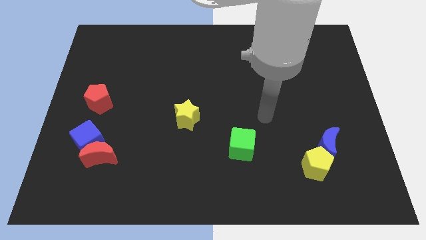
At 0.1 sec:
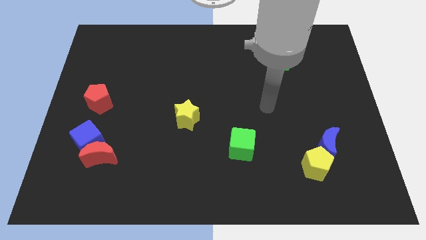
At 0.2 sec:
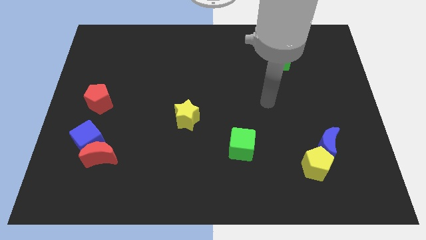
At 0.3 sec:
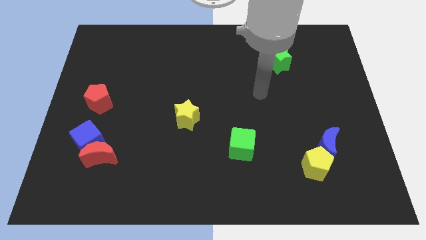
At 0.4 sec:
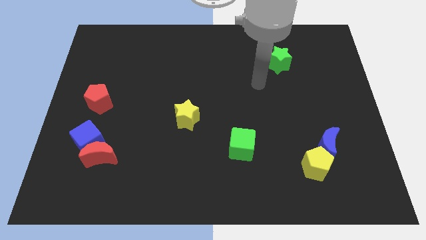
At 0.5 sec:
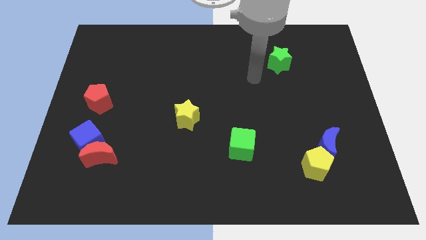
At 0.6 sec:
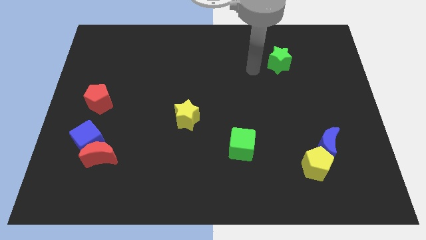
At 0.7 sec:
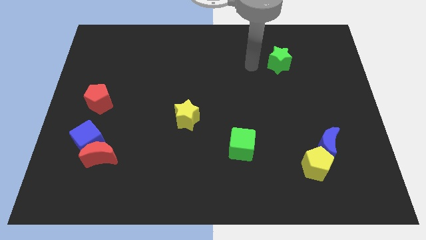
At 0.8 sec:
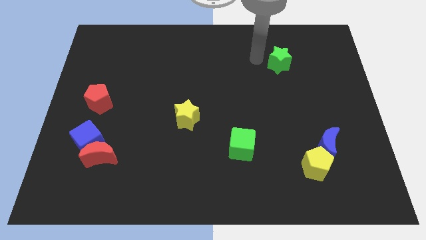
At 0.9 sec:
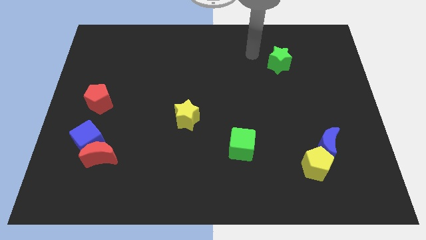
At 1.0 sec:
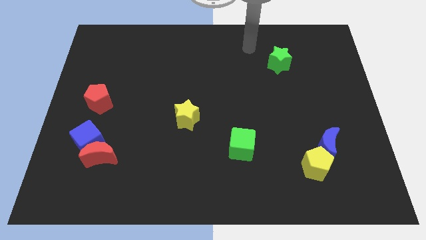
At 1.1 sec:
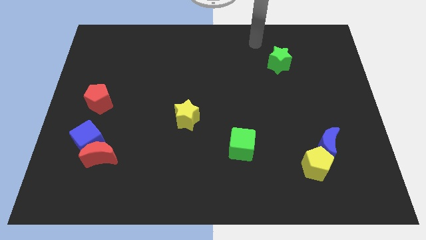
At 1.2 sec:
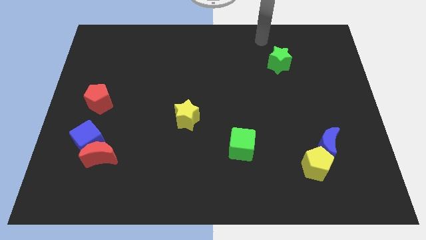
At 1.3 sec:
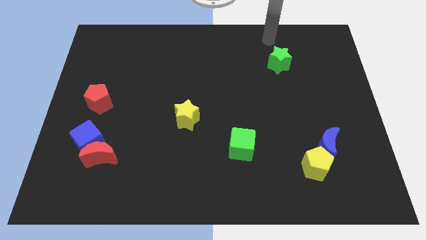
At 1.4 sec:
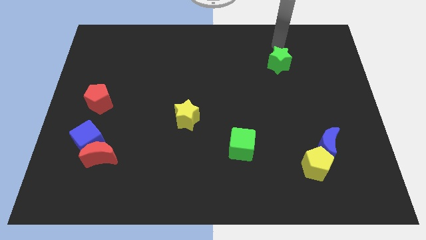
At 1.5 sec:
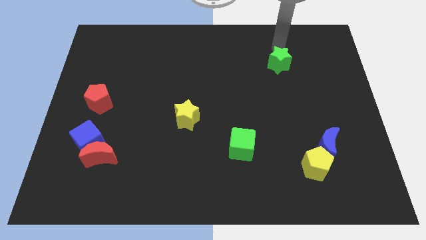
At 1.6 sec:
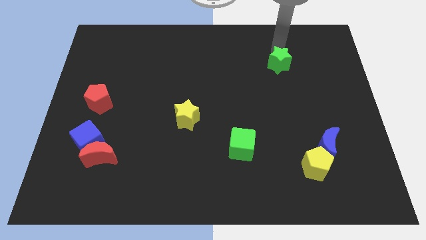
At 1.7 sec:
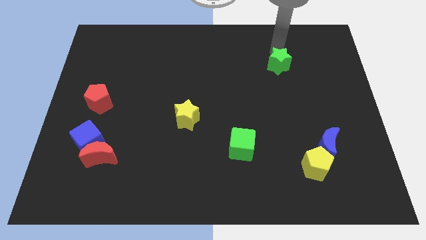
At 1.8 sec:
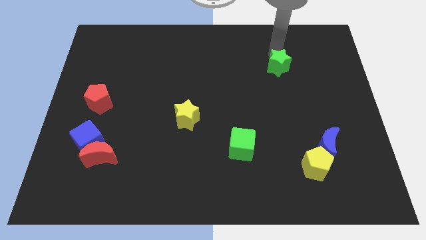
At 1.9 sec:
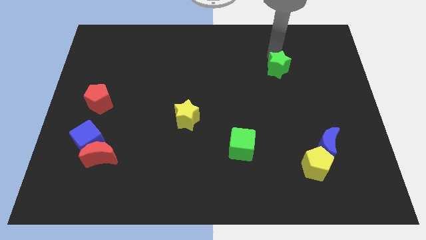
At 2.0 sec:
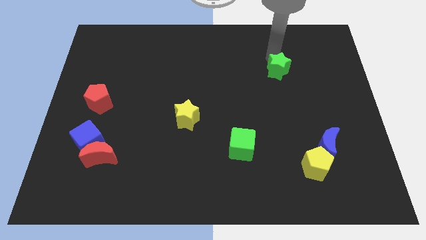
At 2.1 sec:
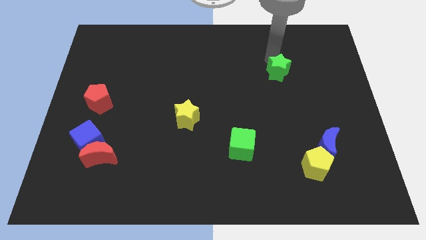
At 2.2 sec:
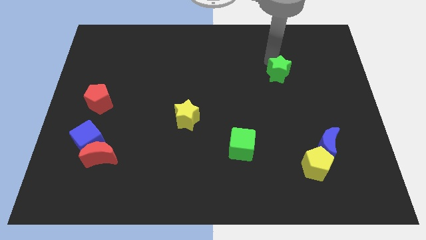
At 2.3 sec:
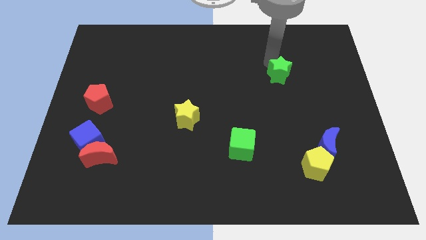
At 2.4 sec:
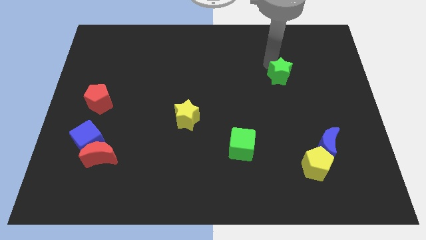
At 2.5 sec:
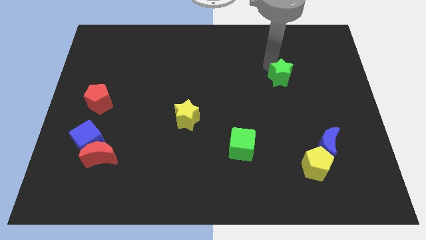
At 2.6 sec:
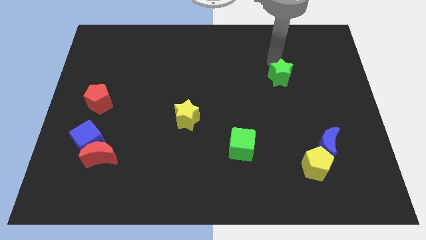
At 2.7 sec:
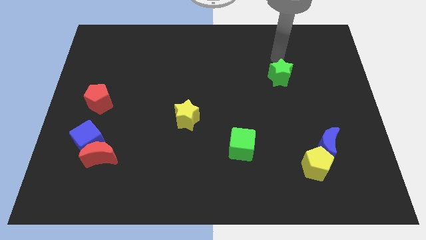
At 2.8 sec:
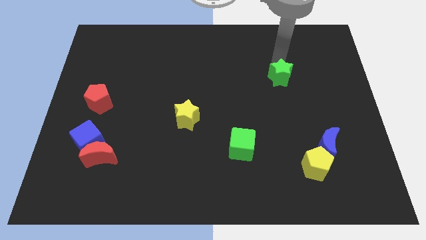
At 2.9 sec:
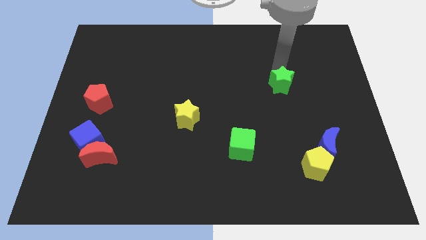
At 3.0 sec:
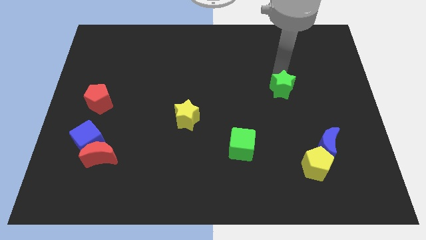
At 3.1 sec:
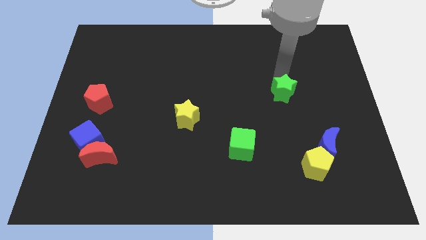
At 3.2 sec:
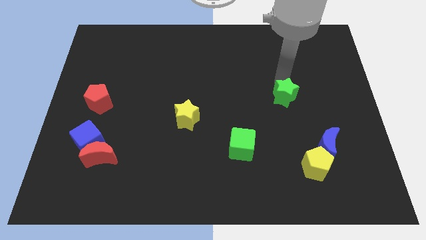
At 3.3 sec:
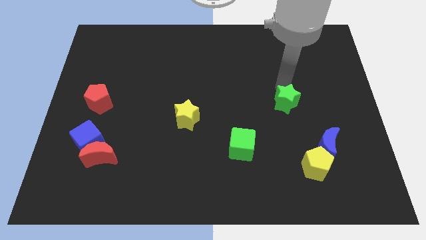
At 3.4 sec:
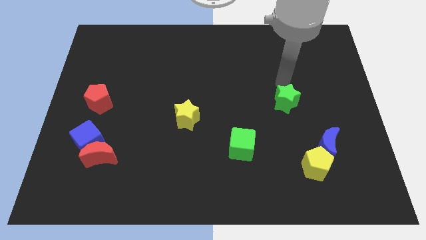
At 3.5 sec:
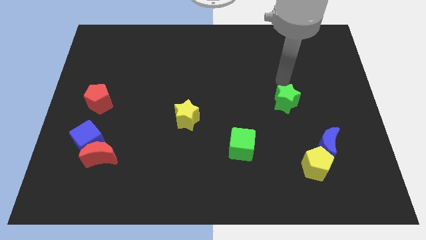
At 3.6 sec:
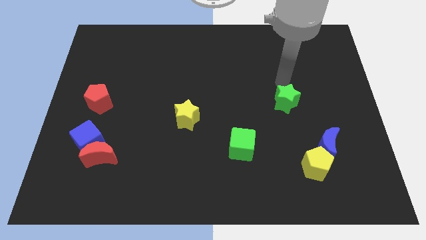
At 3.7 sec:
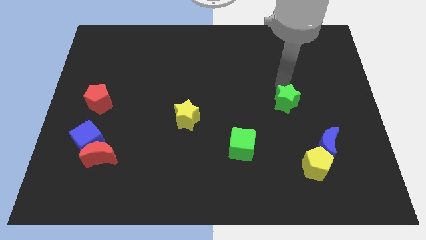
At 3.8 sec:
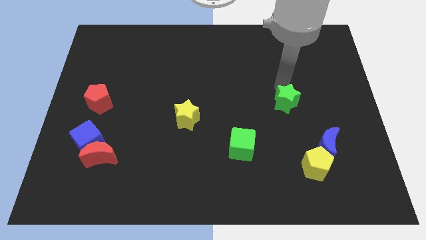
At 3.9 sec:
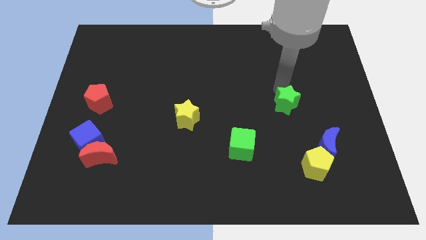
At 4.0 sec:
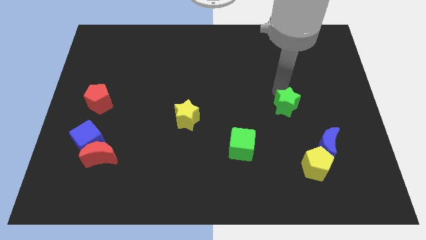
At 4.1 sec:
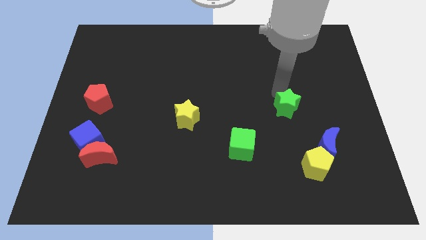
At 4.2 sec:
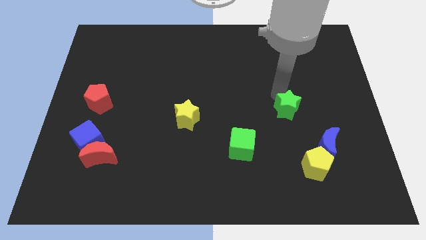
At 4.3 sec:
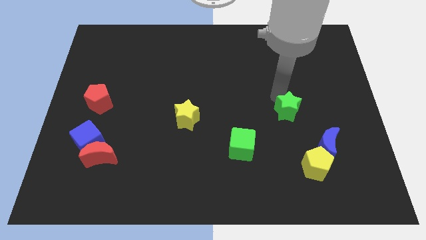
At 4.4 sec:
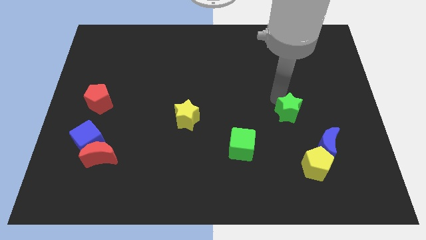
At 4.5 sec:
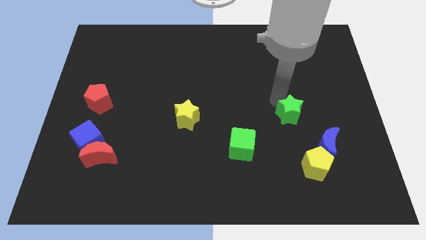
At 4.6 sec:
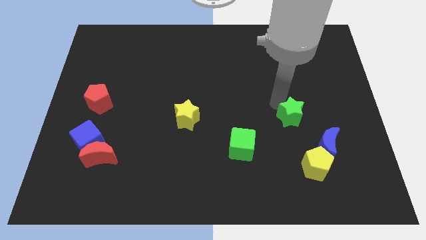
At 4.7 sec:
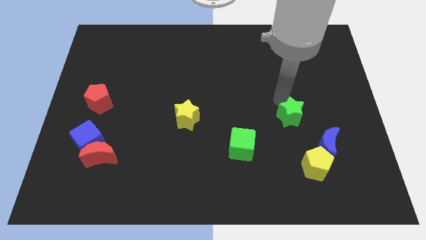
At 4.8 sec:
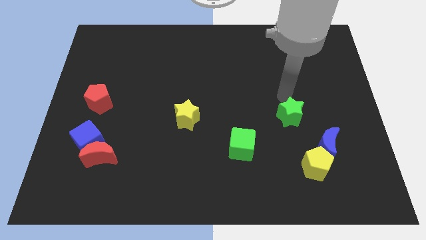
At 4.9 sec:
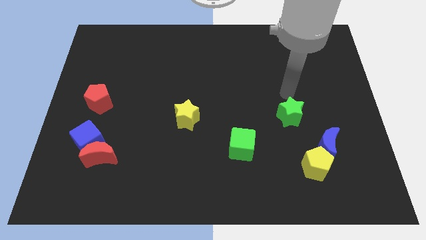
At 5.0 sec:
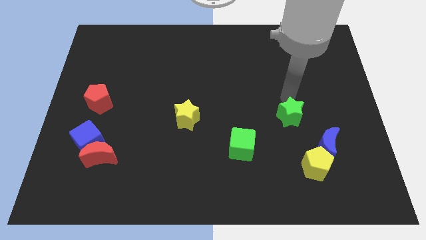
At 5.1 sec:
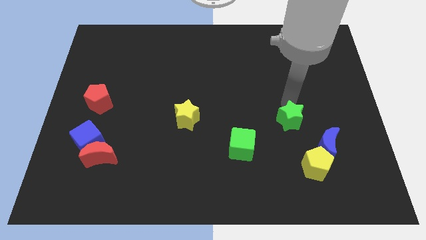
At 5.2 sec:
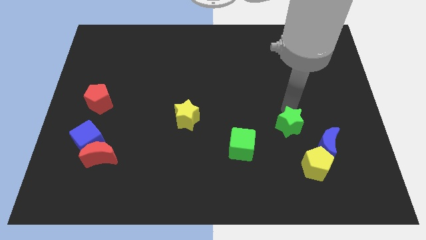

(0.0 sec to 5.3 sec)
slide the green star down

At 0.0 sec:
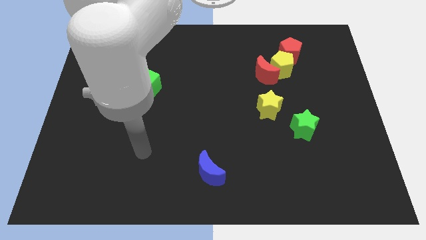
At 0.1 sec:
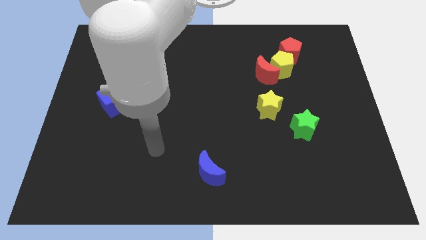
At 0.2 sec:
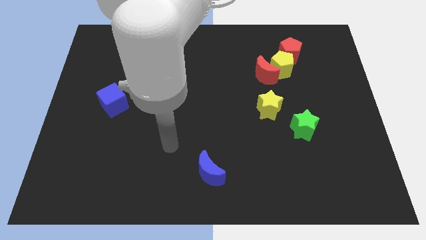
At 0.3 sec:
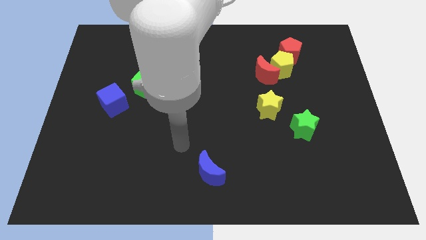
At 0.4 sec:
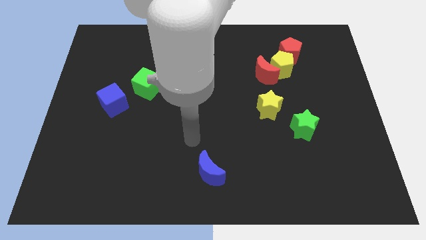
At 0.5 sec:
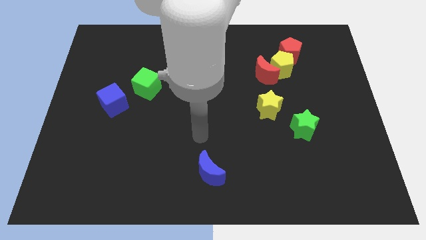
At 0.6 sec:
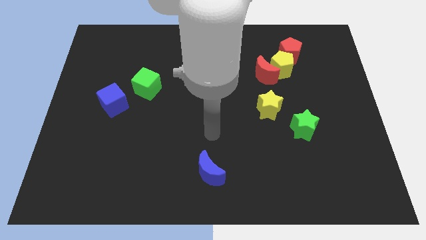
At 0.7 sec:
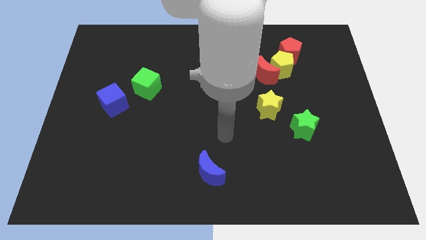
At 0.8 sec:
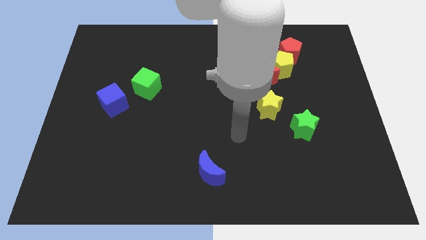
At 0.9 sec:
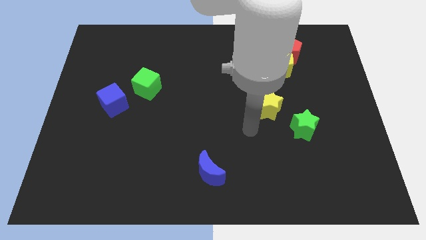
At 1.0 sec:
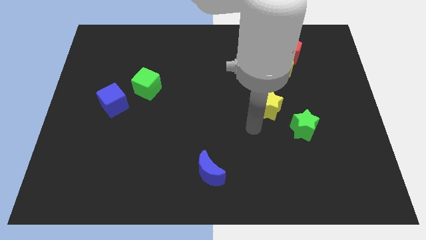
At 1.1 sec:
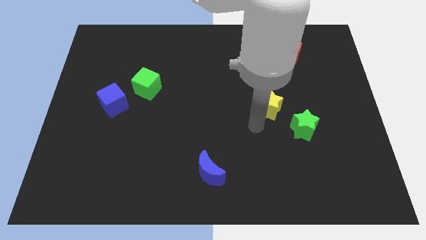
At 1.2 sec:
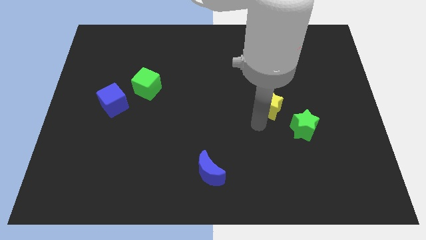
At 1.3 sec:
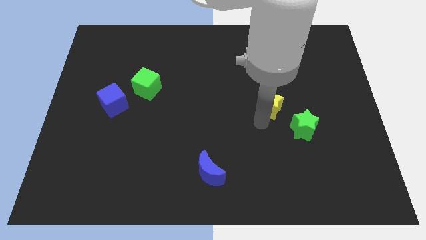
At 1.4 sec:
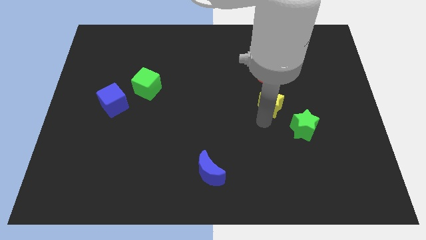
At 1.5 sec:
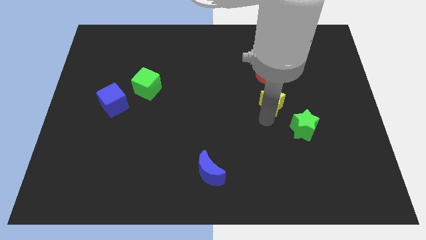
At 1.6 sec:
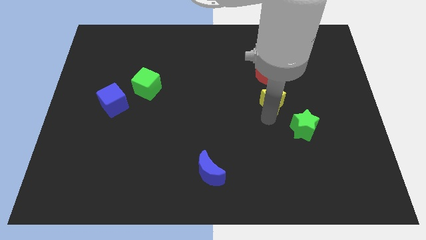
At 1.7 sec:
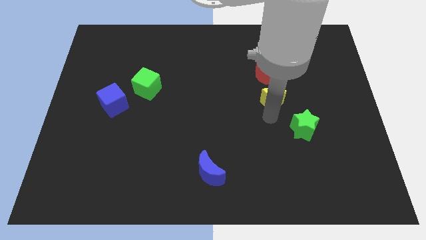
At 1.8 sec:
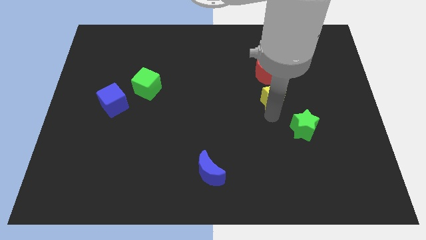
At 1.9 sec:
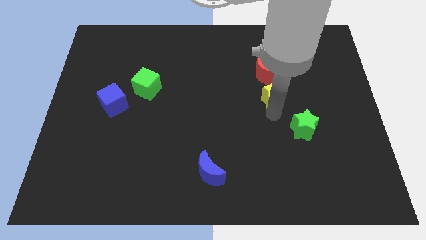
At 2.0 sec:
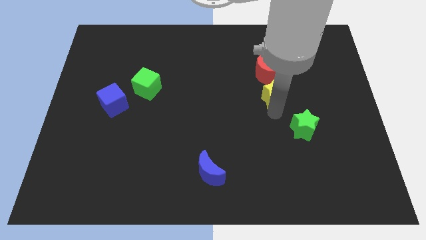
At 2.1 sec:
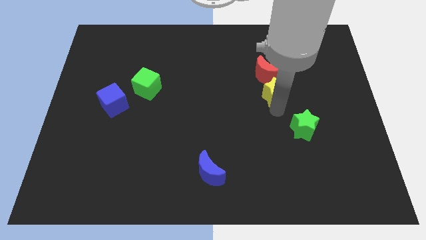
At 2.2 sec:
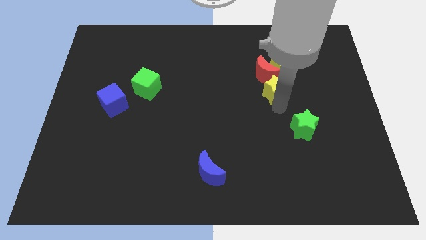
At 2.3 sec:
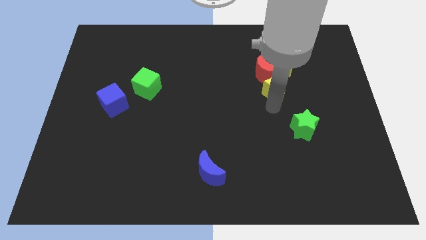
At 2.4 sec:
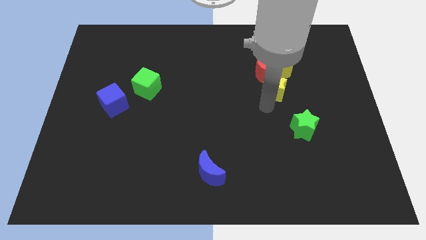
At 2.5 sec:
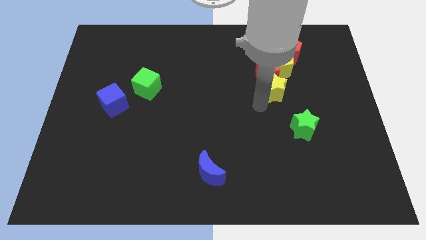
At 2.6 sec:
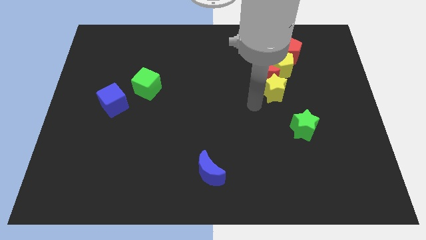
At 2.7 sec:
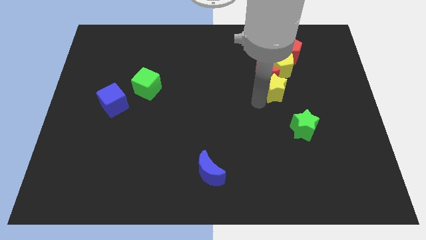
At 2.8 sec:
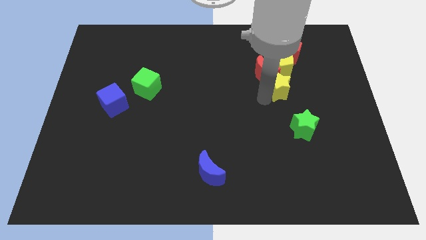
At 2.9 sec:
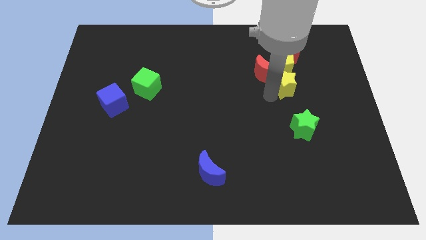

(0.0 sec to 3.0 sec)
push the yellow star slightly up and right diagonally
